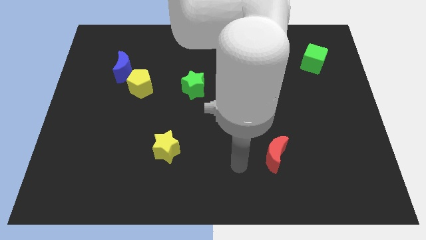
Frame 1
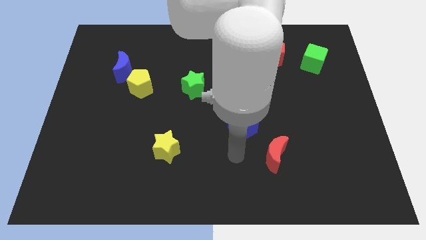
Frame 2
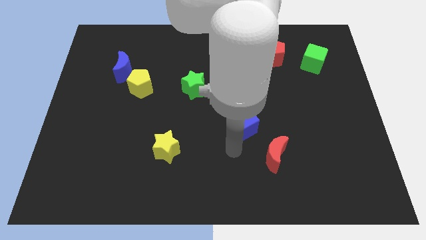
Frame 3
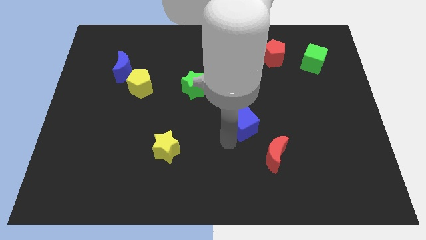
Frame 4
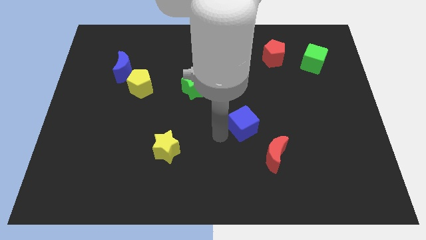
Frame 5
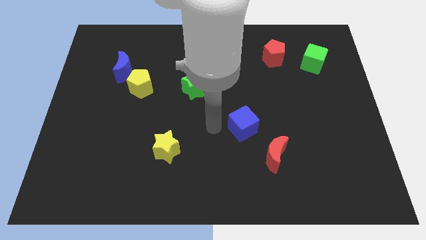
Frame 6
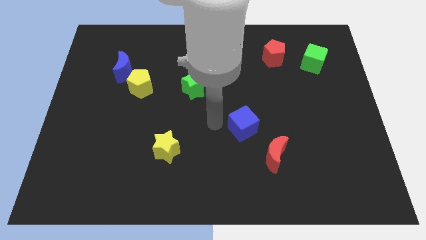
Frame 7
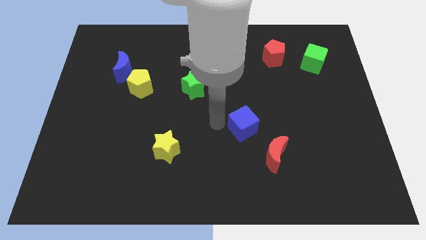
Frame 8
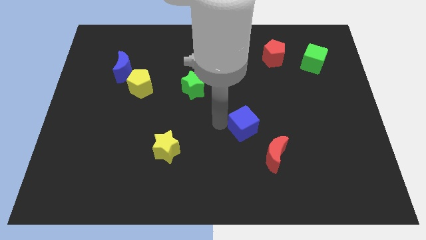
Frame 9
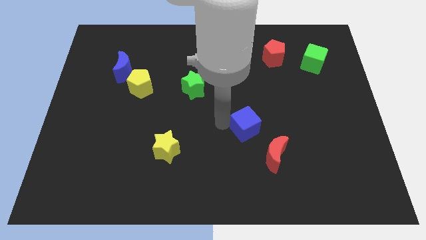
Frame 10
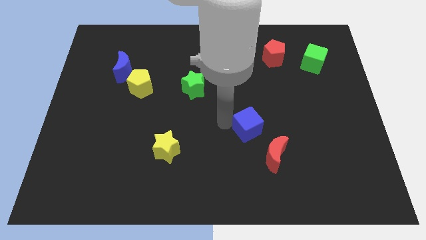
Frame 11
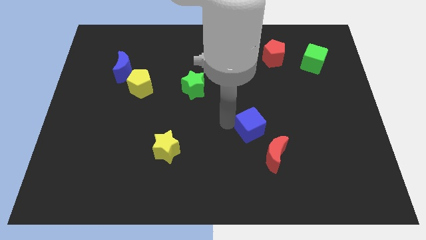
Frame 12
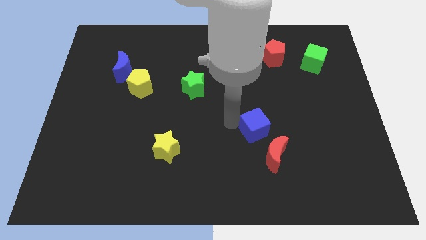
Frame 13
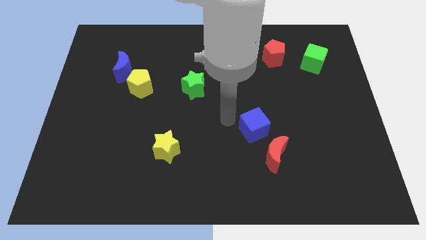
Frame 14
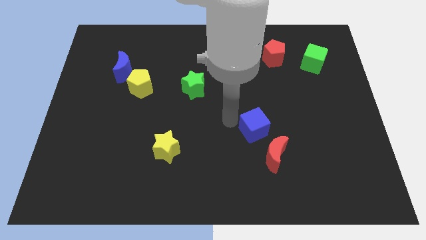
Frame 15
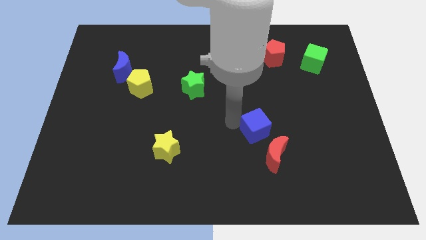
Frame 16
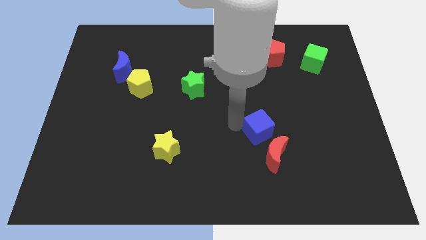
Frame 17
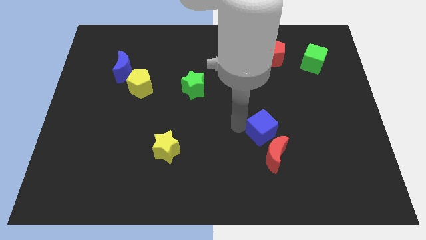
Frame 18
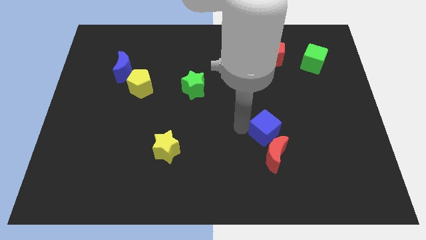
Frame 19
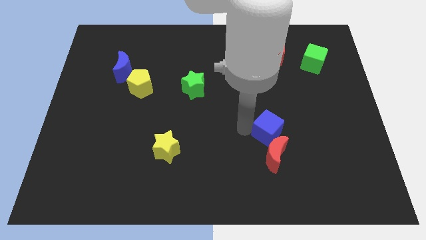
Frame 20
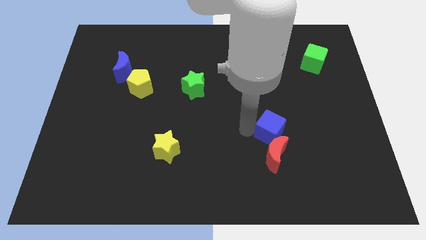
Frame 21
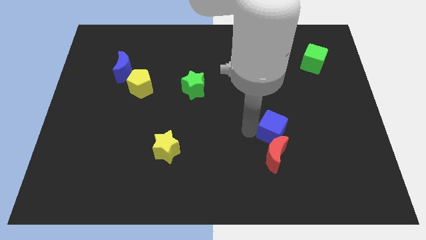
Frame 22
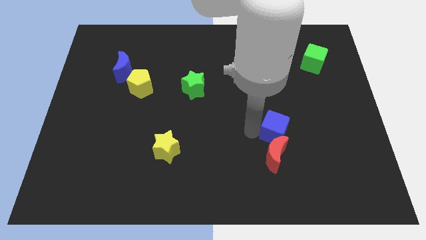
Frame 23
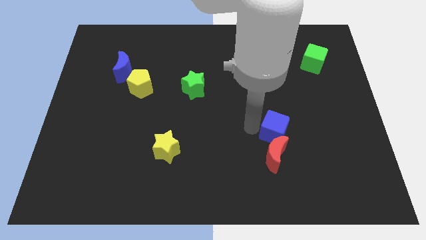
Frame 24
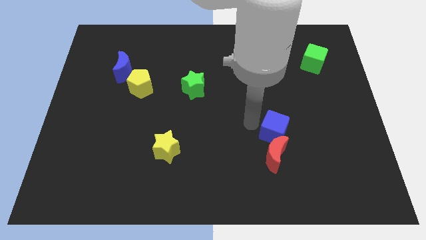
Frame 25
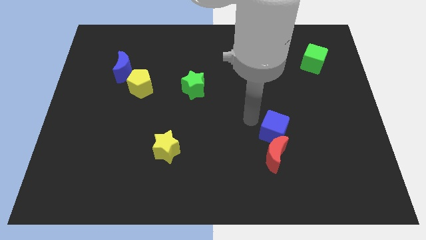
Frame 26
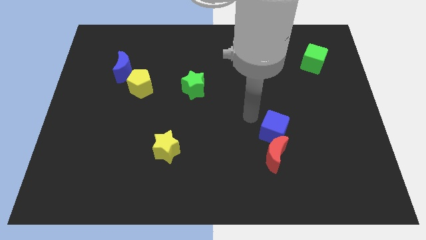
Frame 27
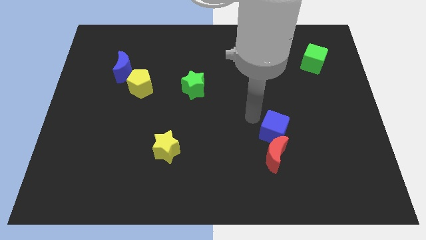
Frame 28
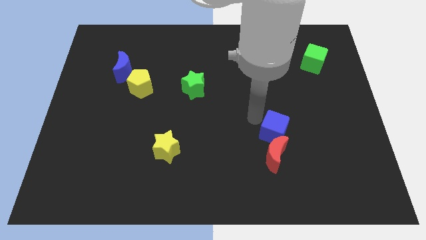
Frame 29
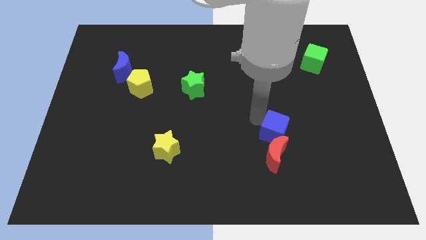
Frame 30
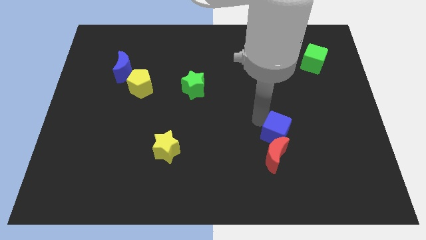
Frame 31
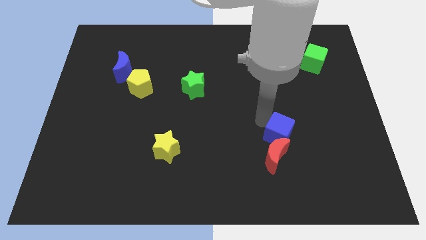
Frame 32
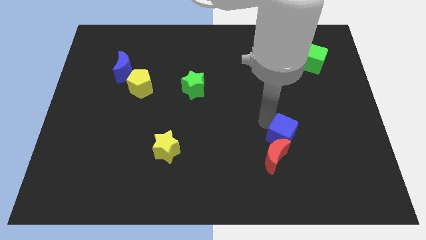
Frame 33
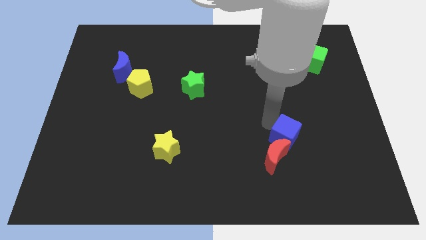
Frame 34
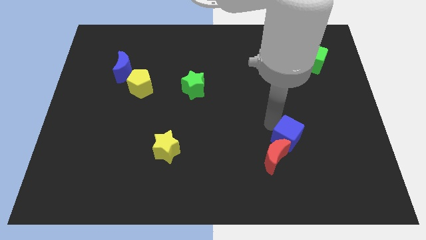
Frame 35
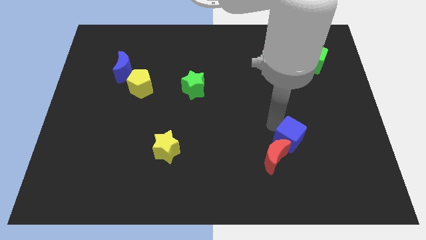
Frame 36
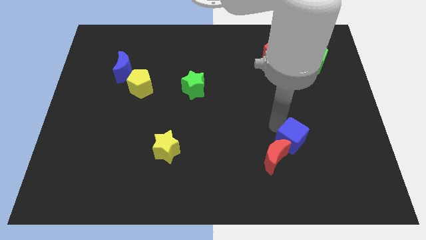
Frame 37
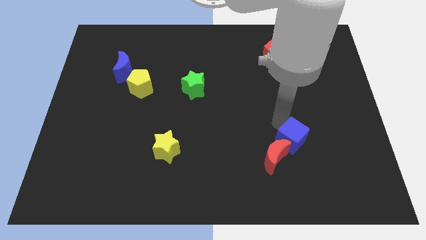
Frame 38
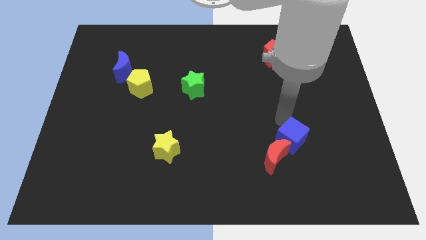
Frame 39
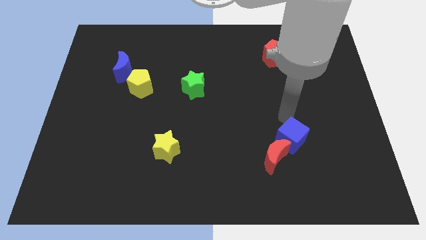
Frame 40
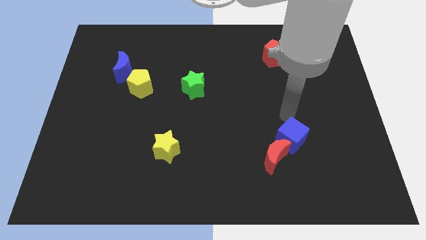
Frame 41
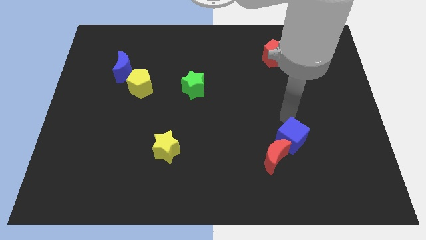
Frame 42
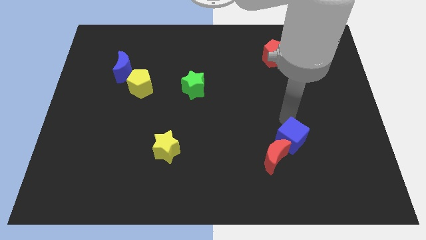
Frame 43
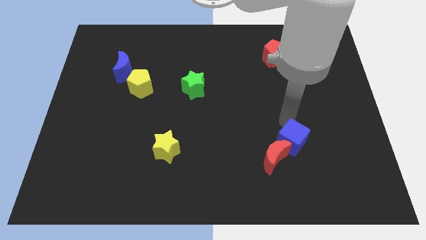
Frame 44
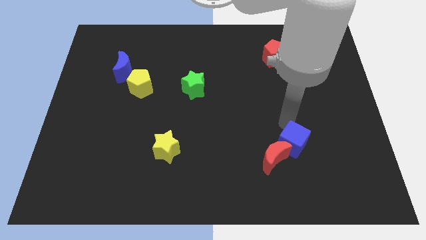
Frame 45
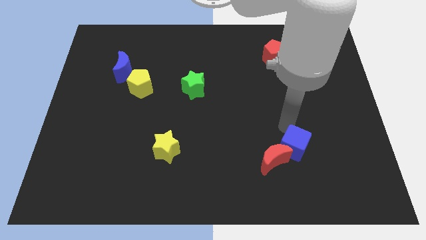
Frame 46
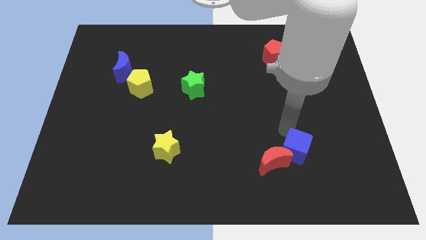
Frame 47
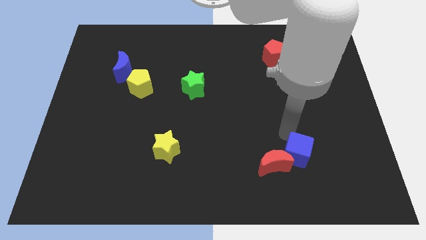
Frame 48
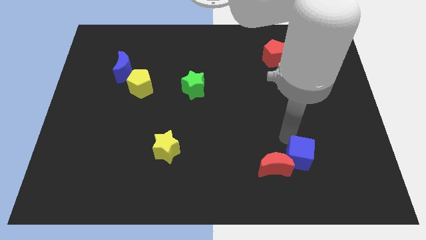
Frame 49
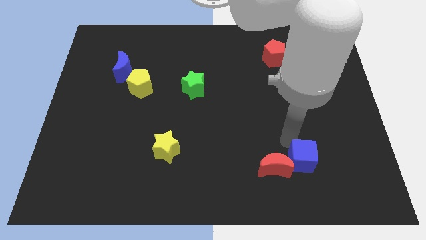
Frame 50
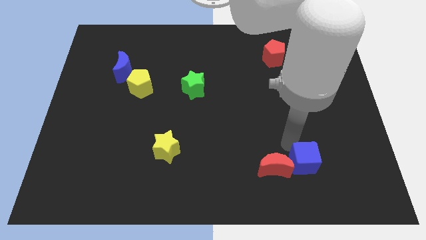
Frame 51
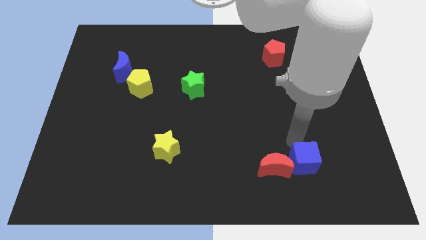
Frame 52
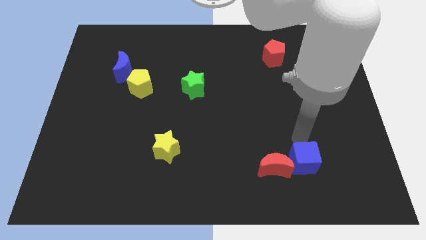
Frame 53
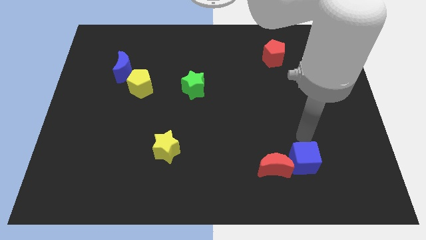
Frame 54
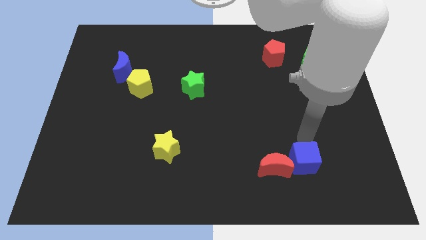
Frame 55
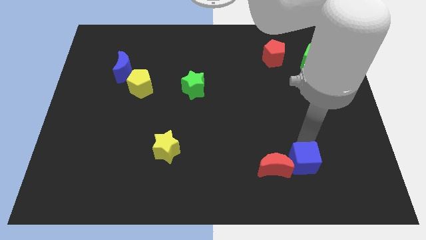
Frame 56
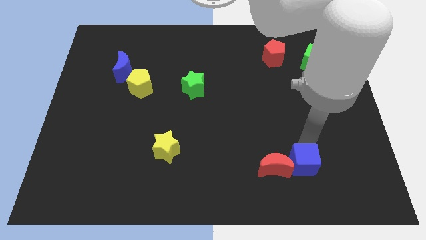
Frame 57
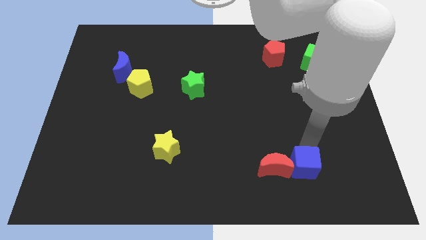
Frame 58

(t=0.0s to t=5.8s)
put the blue cube to the bottom right side of the red moon

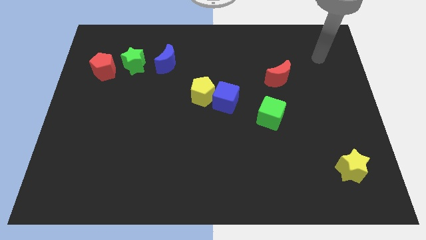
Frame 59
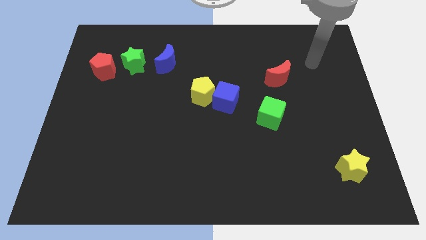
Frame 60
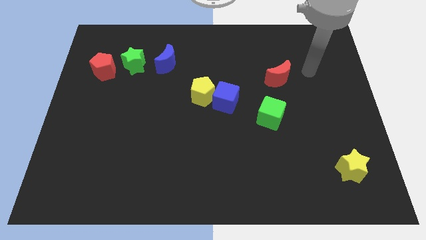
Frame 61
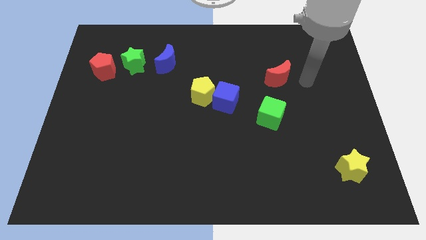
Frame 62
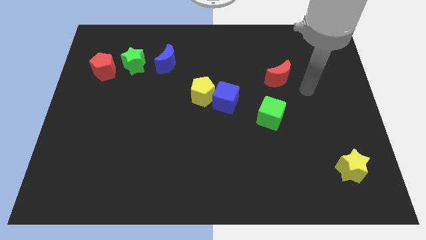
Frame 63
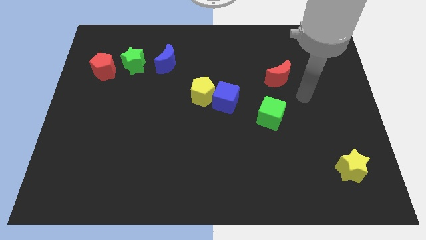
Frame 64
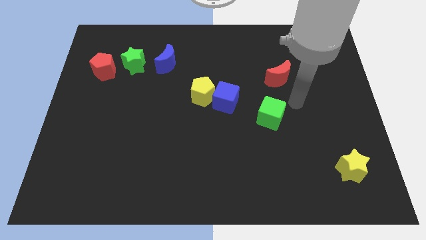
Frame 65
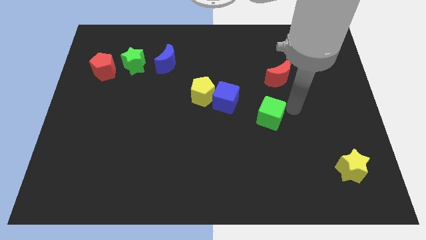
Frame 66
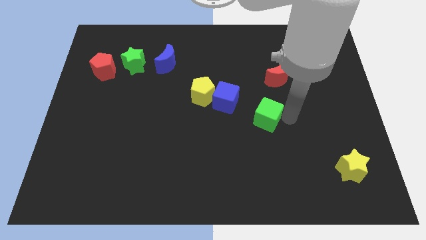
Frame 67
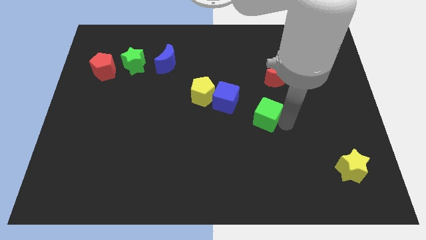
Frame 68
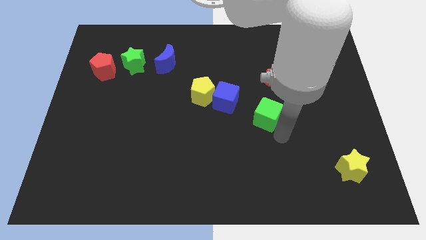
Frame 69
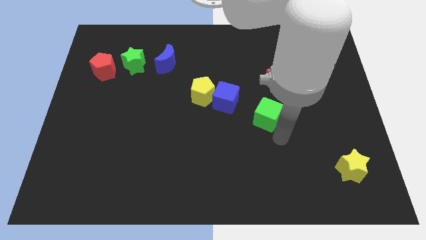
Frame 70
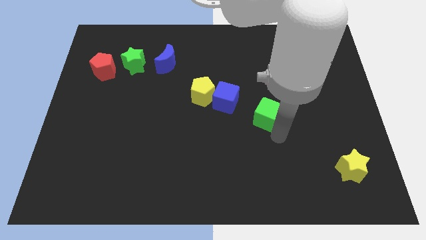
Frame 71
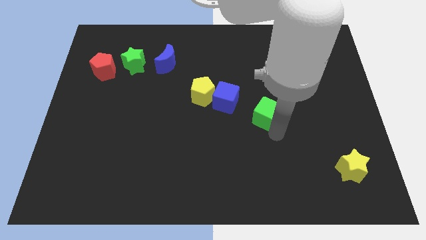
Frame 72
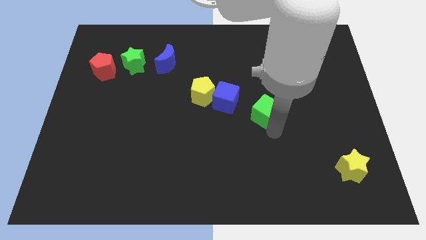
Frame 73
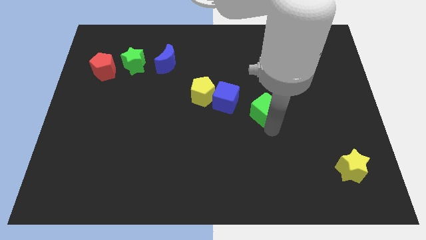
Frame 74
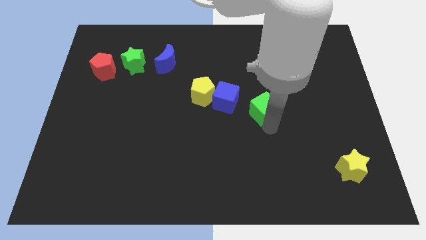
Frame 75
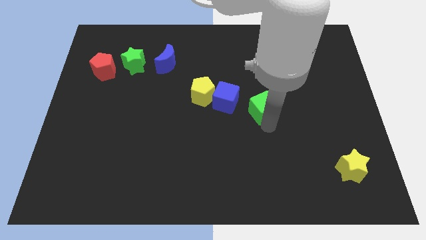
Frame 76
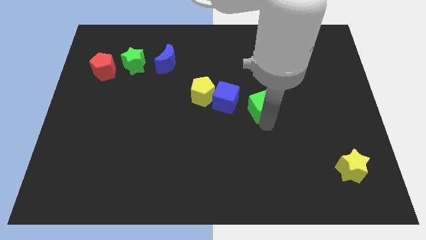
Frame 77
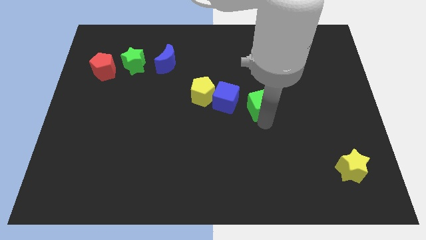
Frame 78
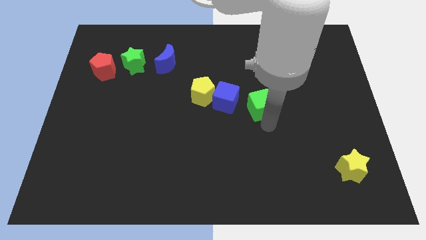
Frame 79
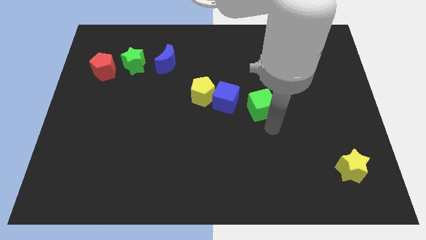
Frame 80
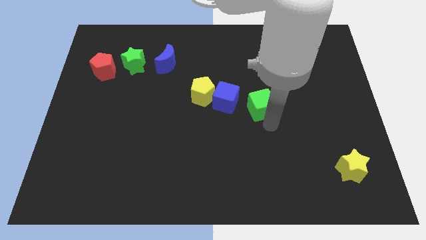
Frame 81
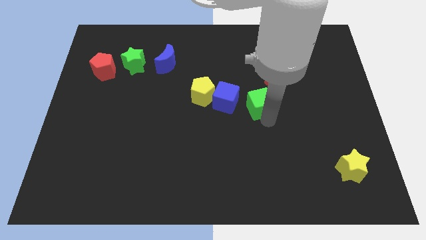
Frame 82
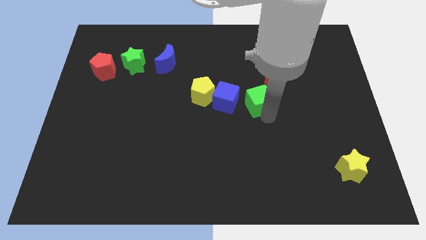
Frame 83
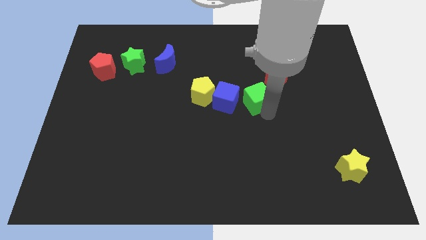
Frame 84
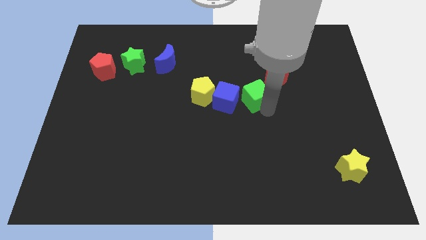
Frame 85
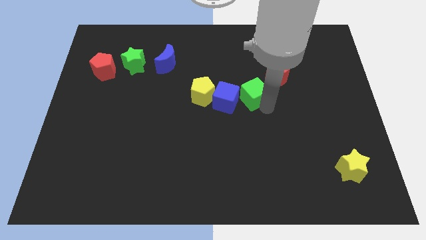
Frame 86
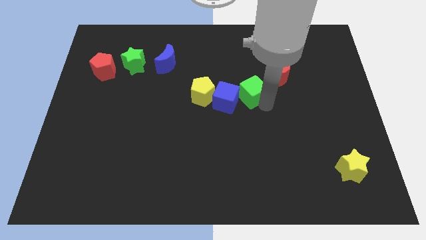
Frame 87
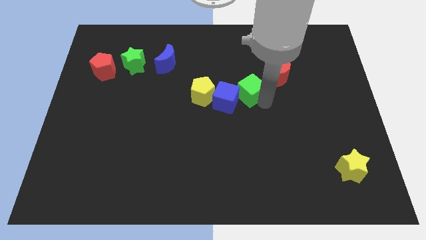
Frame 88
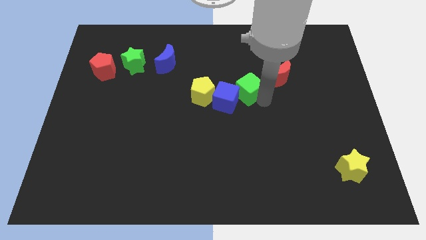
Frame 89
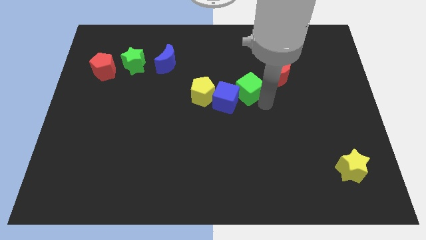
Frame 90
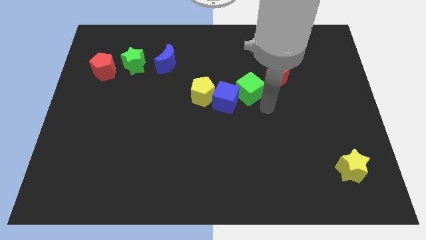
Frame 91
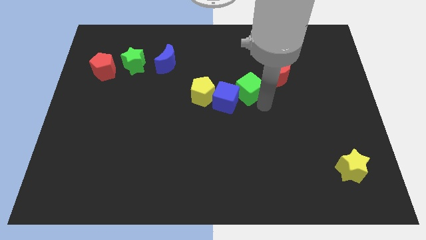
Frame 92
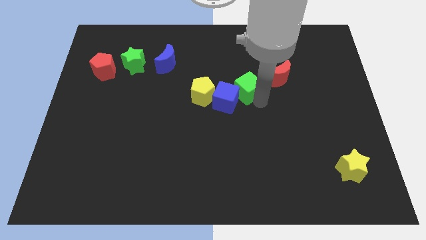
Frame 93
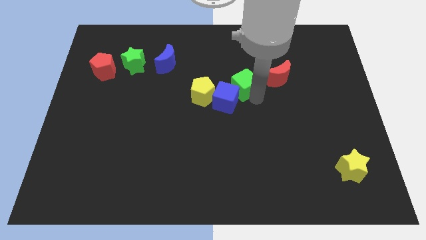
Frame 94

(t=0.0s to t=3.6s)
push the green cube above the blue cube
